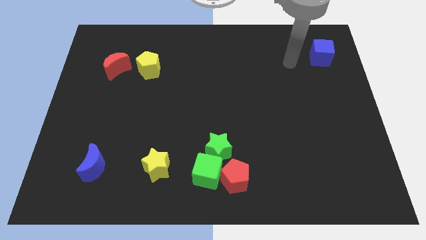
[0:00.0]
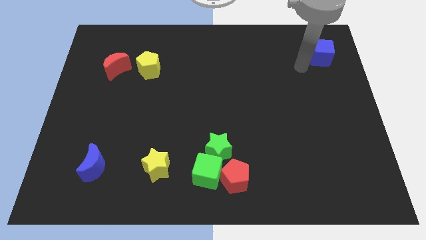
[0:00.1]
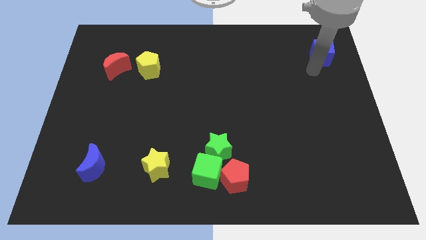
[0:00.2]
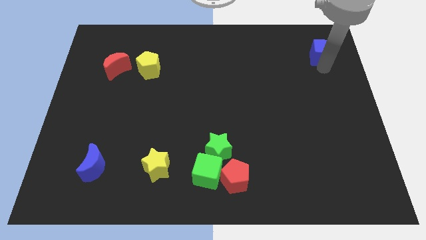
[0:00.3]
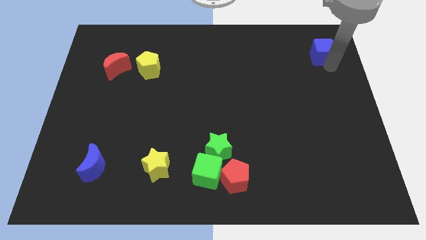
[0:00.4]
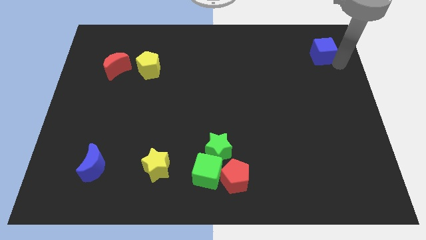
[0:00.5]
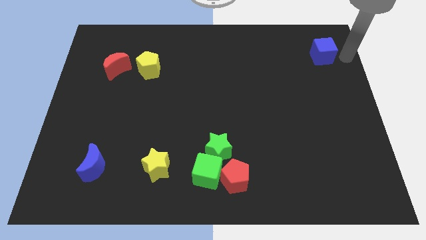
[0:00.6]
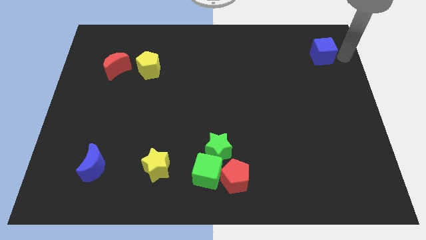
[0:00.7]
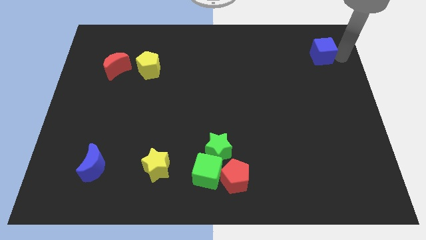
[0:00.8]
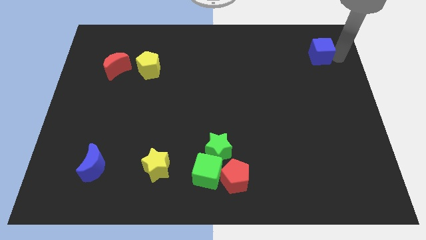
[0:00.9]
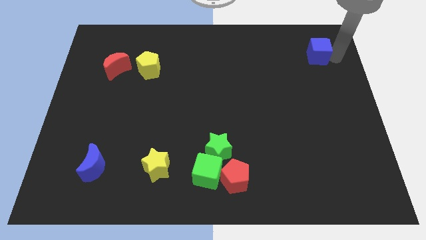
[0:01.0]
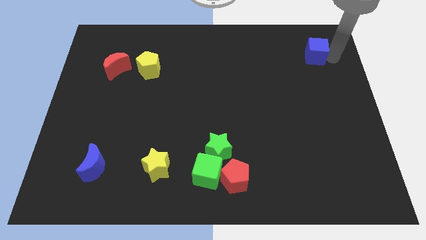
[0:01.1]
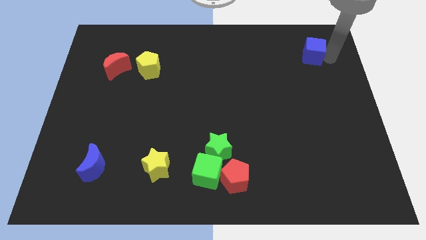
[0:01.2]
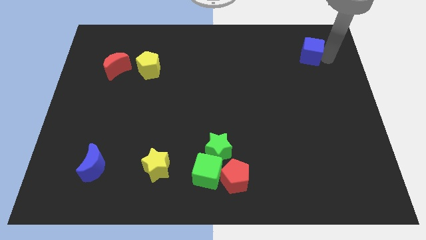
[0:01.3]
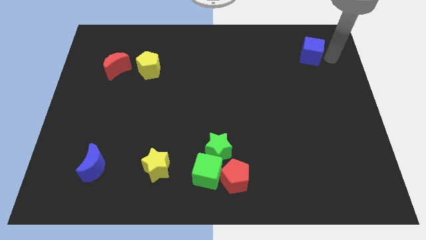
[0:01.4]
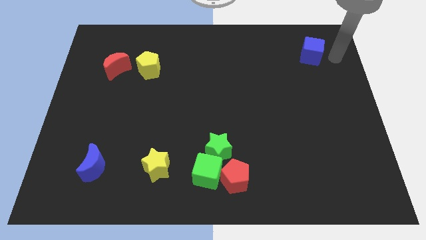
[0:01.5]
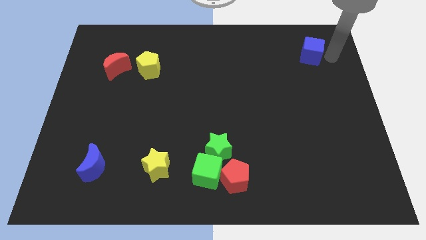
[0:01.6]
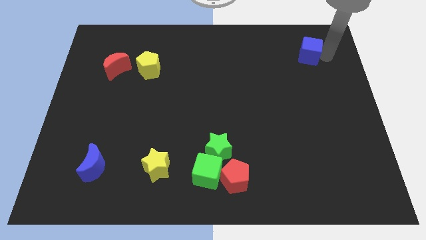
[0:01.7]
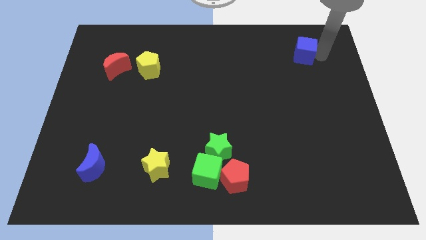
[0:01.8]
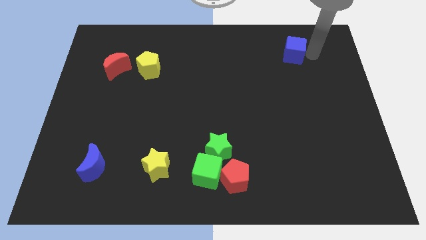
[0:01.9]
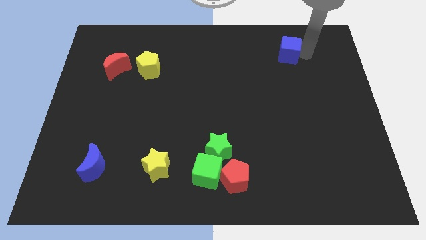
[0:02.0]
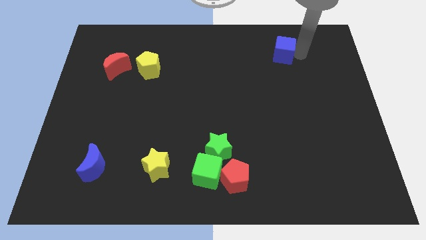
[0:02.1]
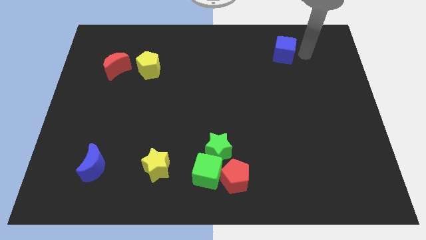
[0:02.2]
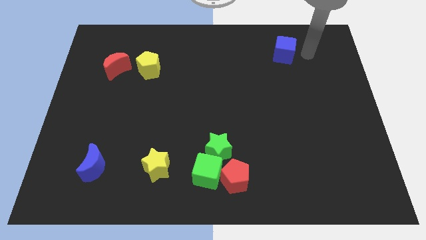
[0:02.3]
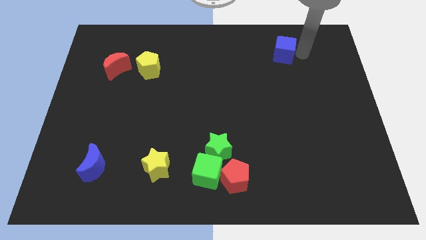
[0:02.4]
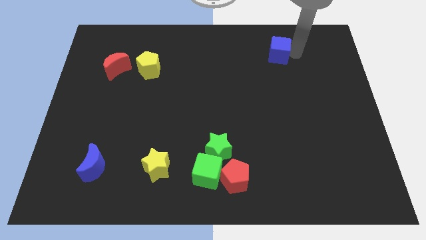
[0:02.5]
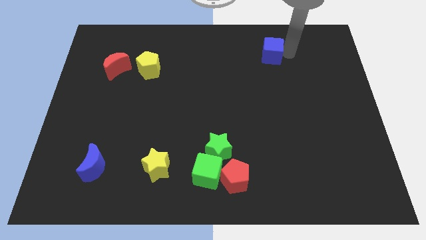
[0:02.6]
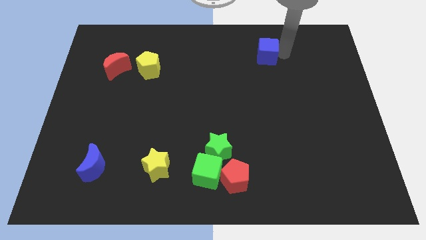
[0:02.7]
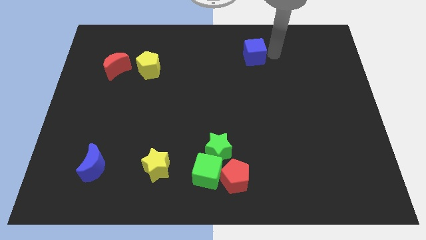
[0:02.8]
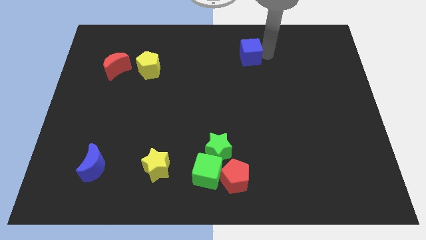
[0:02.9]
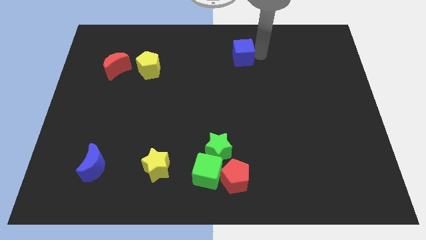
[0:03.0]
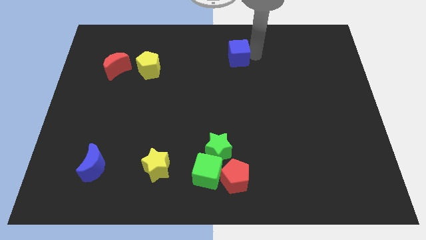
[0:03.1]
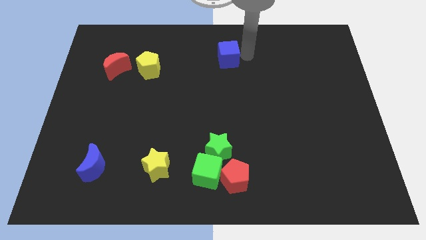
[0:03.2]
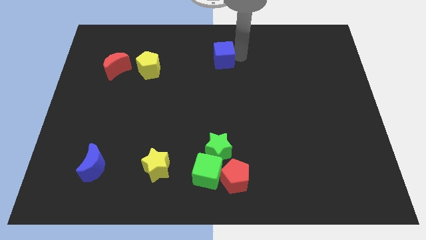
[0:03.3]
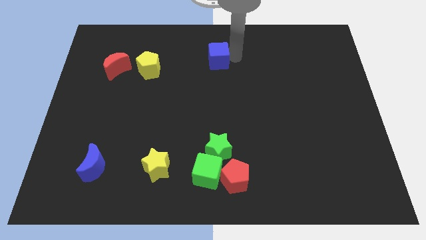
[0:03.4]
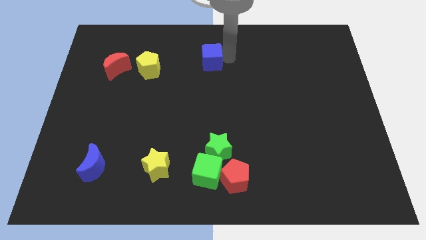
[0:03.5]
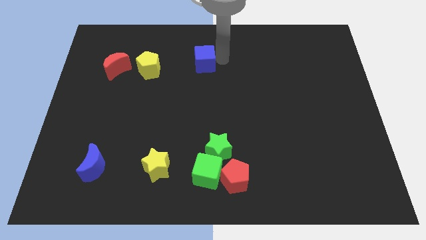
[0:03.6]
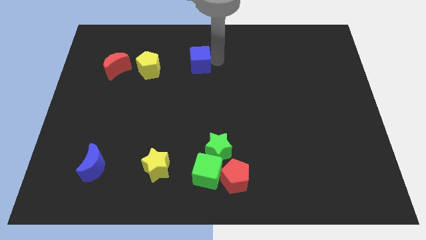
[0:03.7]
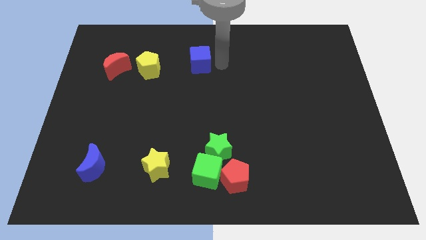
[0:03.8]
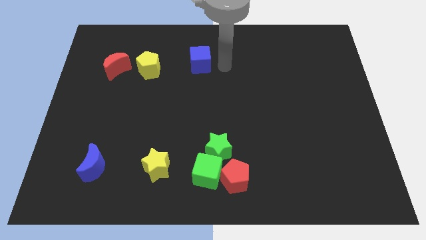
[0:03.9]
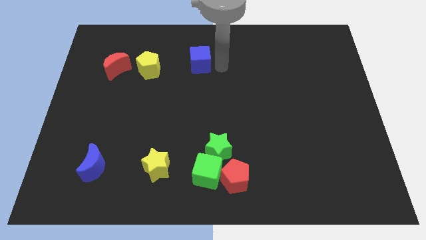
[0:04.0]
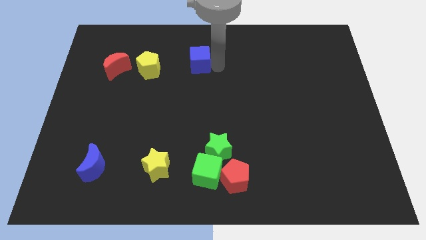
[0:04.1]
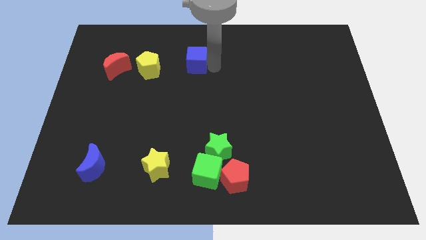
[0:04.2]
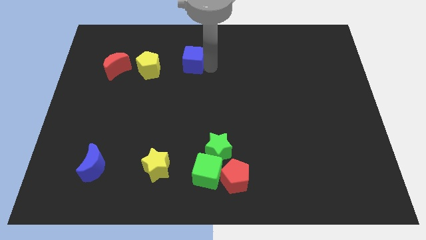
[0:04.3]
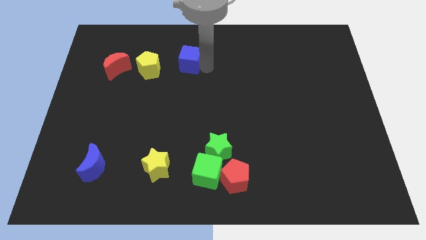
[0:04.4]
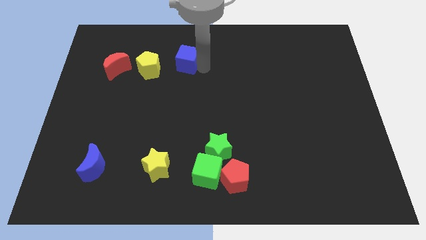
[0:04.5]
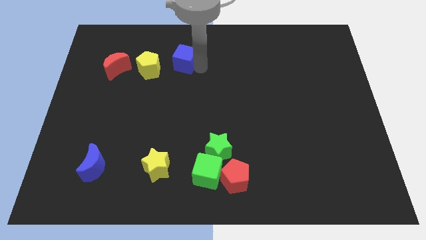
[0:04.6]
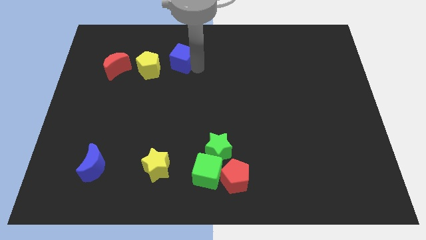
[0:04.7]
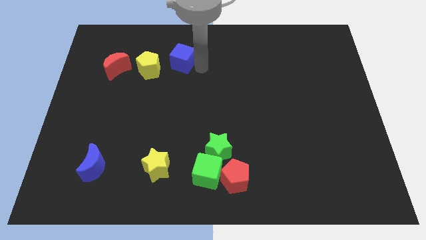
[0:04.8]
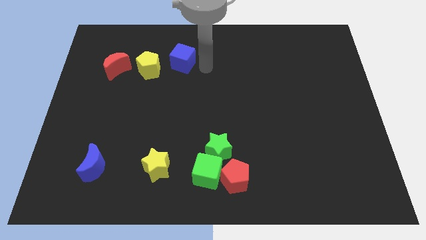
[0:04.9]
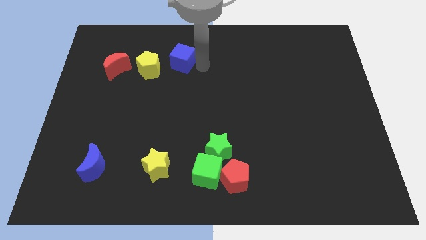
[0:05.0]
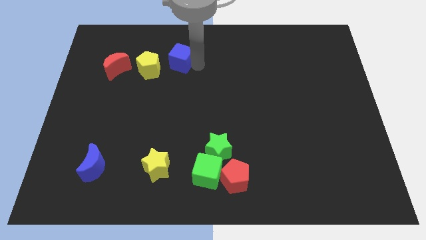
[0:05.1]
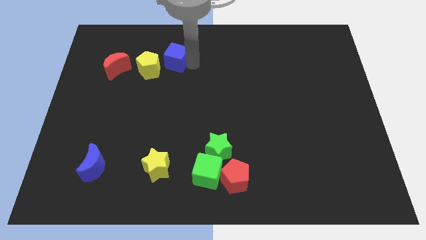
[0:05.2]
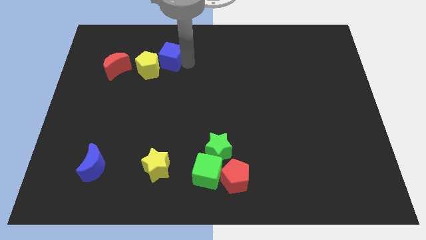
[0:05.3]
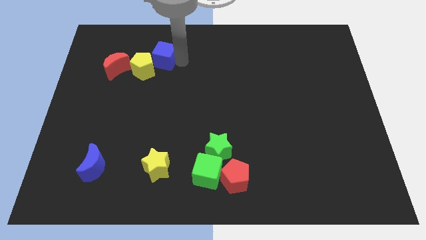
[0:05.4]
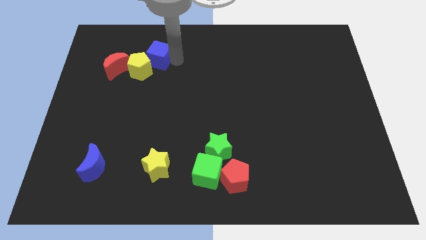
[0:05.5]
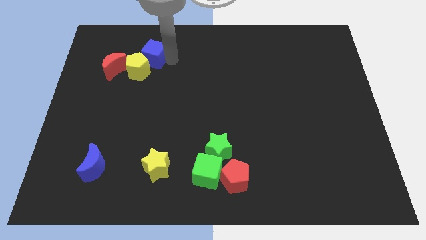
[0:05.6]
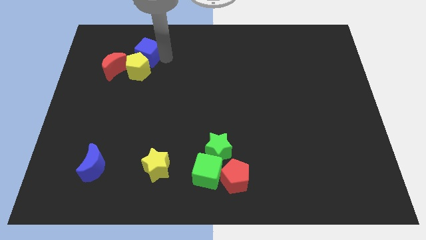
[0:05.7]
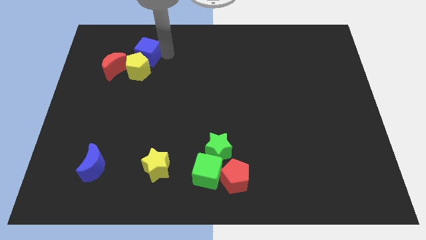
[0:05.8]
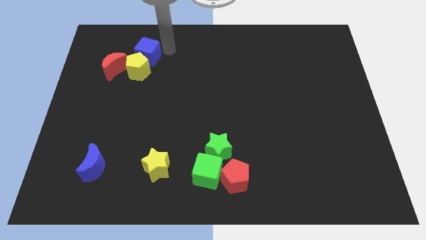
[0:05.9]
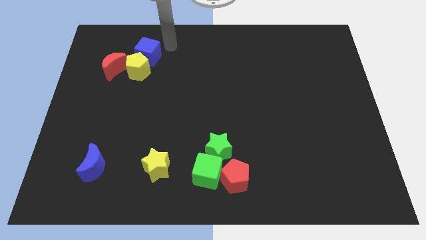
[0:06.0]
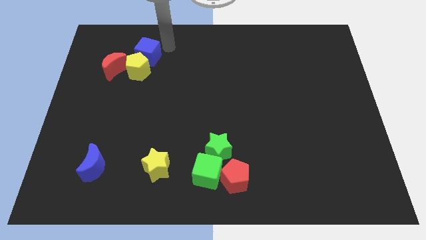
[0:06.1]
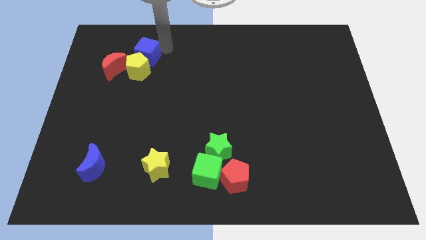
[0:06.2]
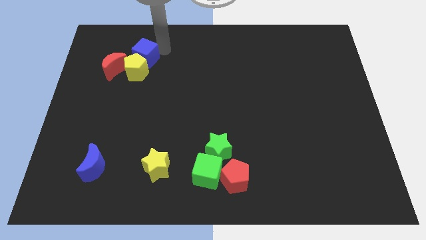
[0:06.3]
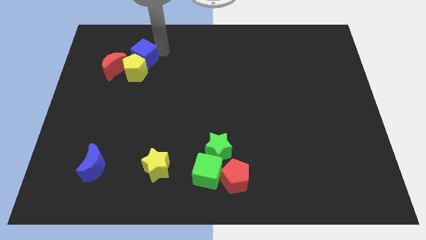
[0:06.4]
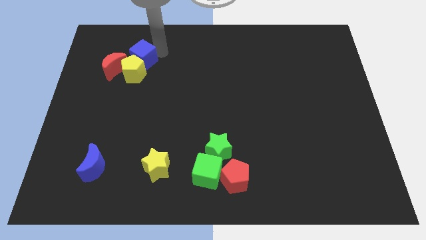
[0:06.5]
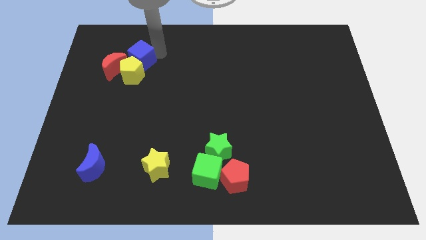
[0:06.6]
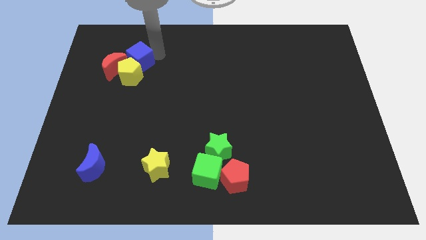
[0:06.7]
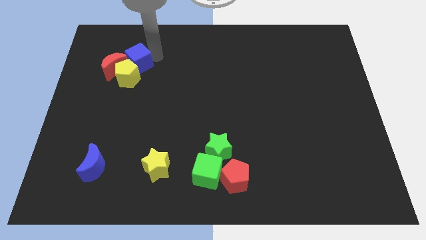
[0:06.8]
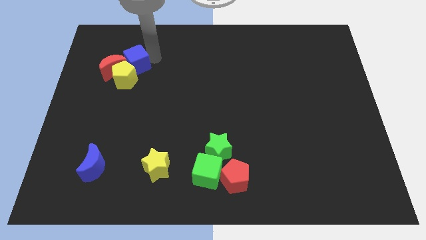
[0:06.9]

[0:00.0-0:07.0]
move the blue cube to the red moon
